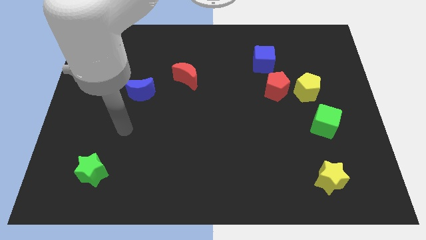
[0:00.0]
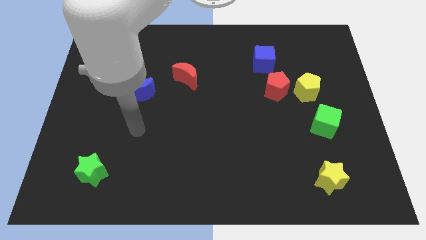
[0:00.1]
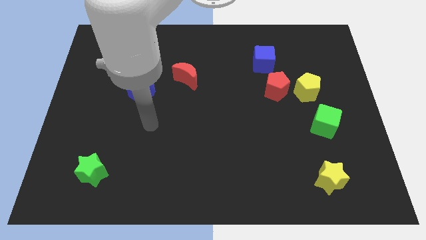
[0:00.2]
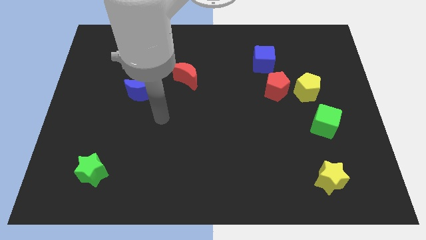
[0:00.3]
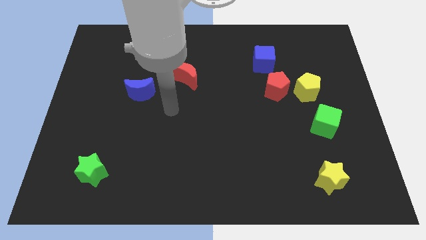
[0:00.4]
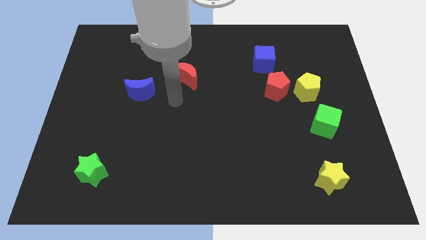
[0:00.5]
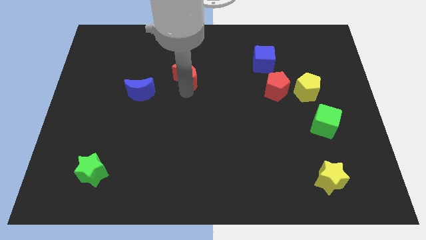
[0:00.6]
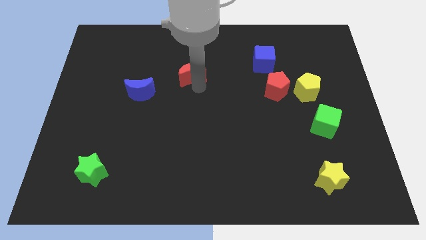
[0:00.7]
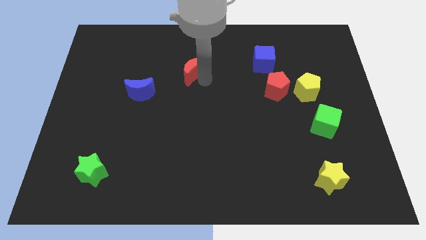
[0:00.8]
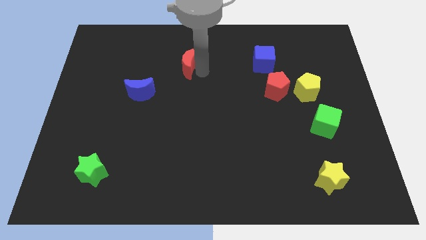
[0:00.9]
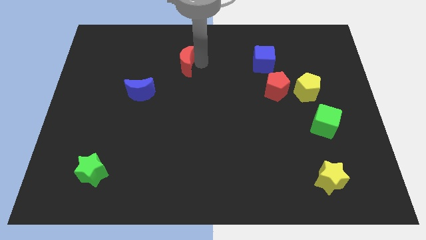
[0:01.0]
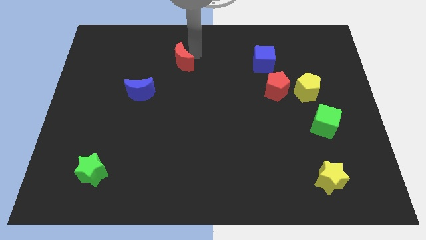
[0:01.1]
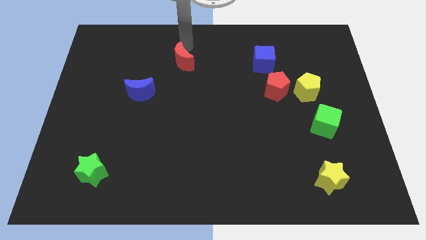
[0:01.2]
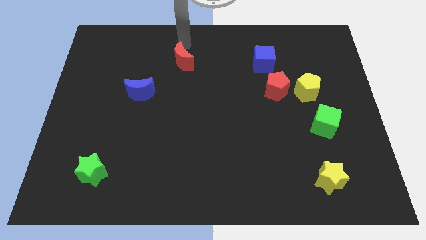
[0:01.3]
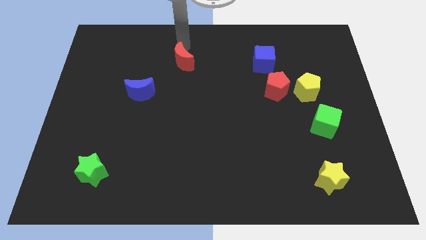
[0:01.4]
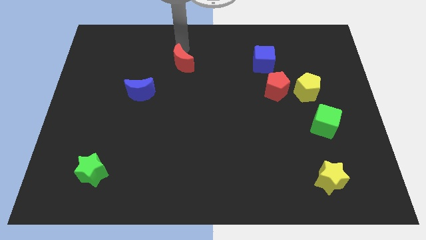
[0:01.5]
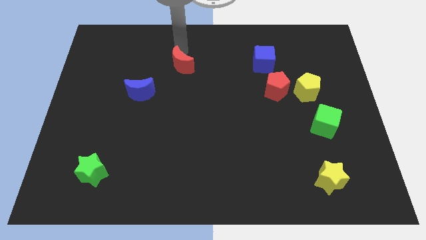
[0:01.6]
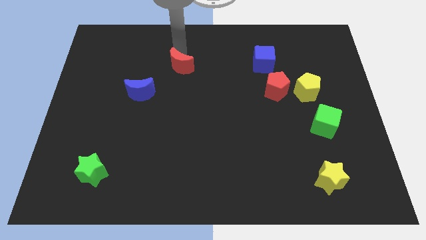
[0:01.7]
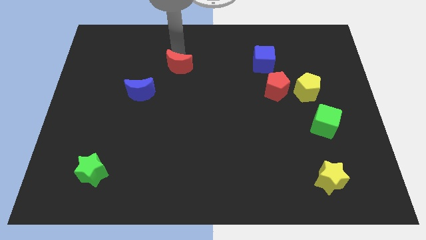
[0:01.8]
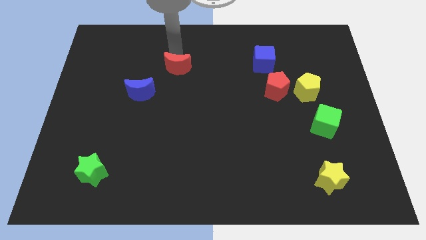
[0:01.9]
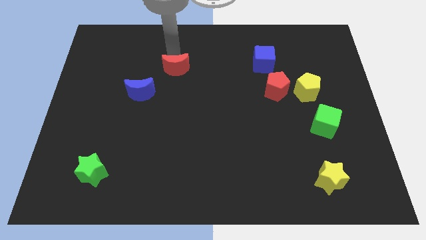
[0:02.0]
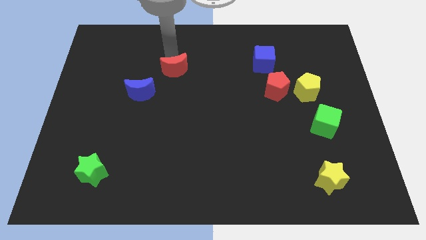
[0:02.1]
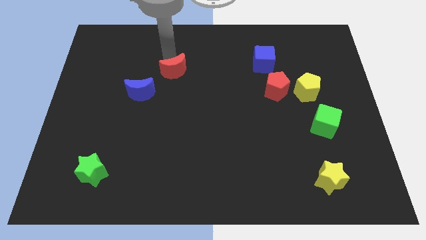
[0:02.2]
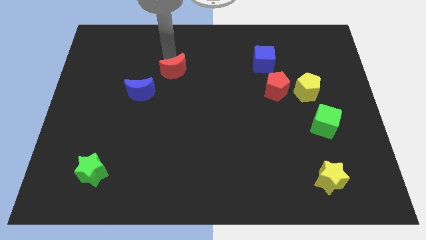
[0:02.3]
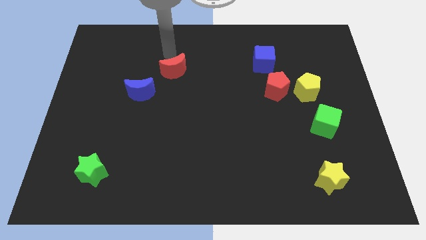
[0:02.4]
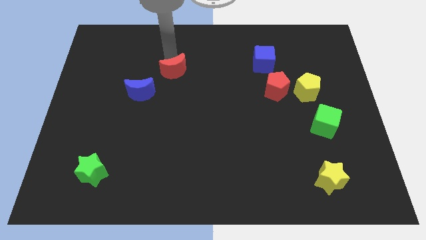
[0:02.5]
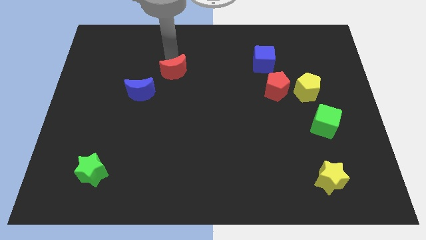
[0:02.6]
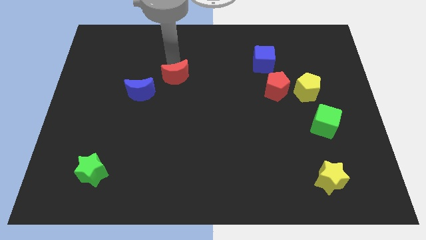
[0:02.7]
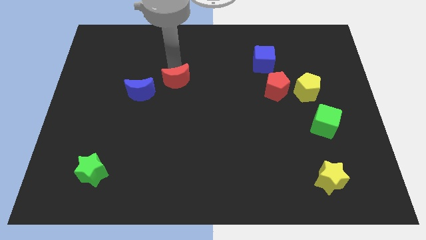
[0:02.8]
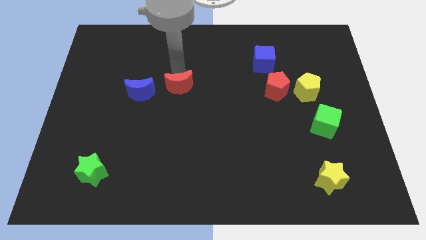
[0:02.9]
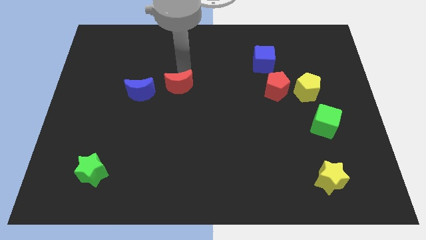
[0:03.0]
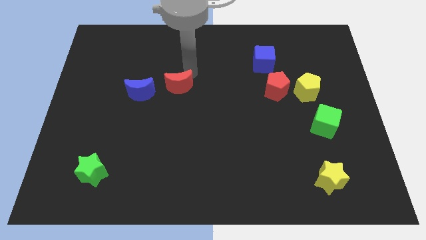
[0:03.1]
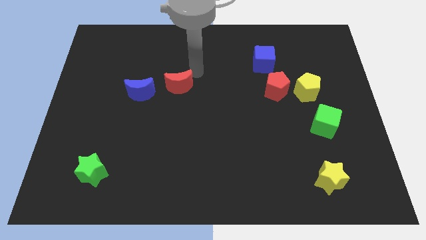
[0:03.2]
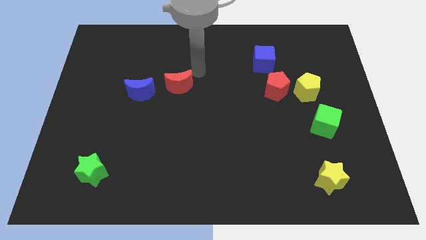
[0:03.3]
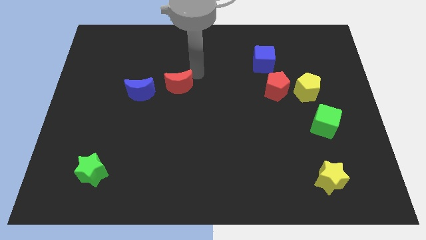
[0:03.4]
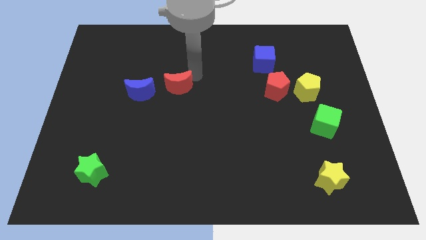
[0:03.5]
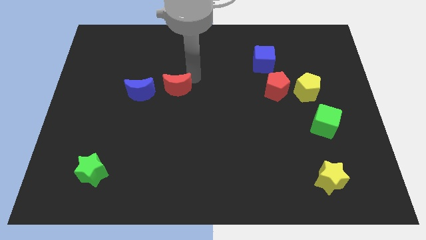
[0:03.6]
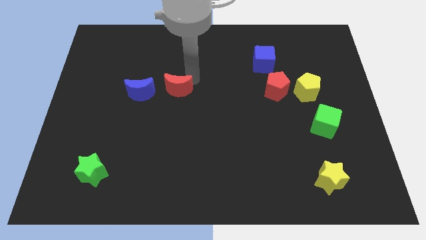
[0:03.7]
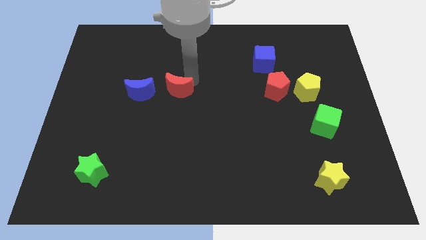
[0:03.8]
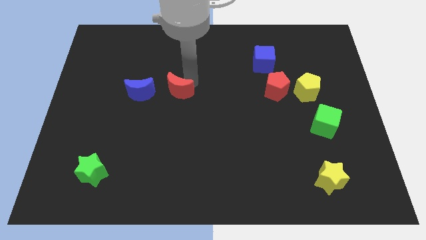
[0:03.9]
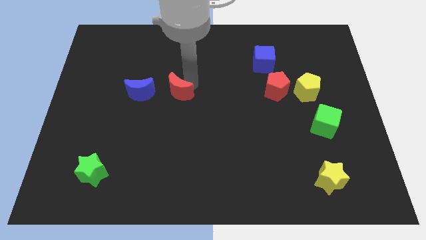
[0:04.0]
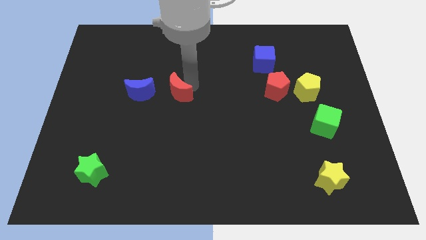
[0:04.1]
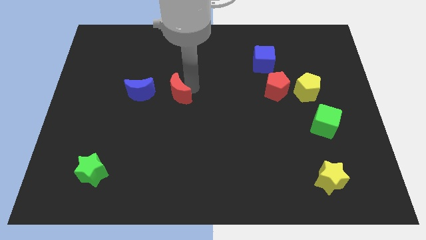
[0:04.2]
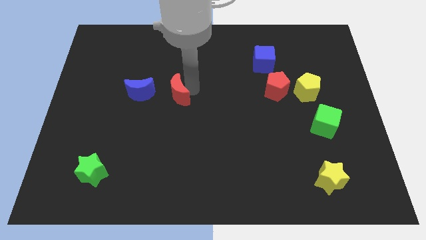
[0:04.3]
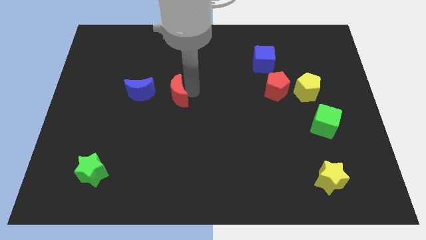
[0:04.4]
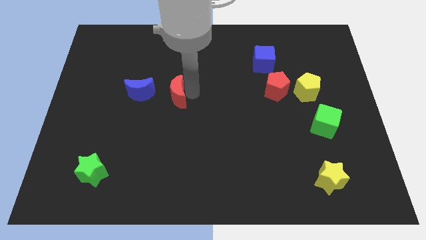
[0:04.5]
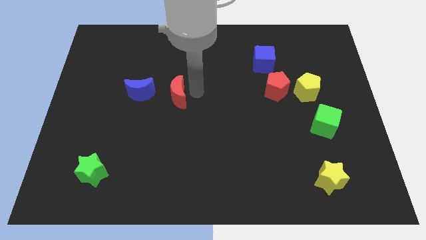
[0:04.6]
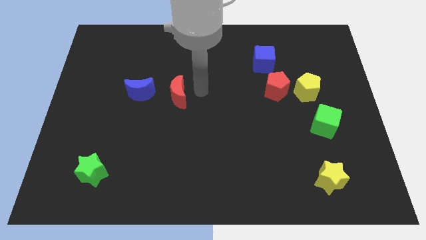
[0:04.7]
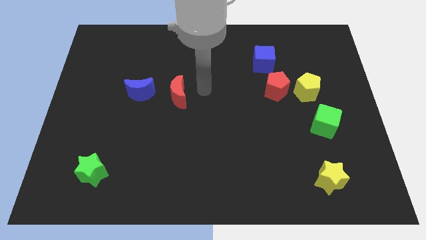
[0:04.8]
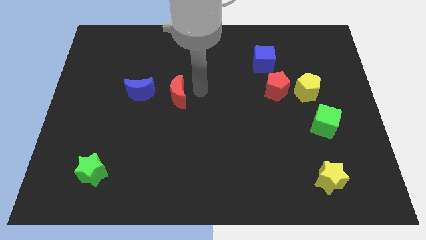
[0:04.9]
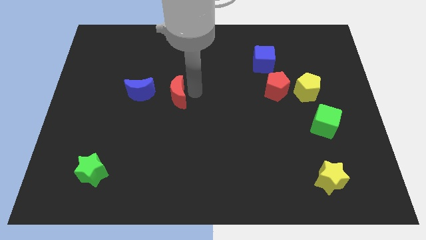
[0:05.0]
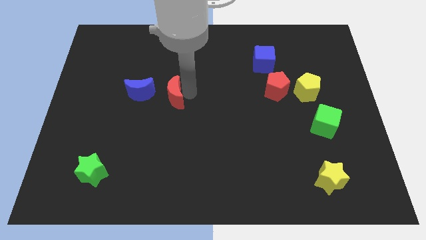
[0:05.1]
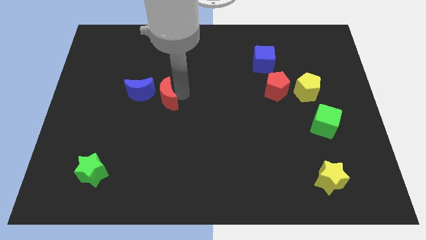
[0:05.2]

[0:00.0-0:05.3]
slide the red moon downwards and then to the left somewhat

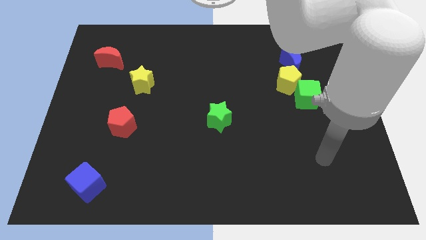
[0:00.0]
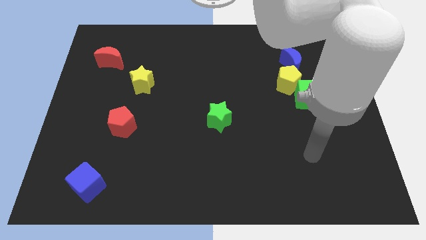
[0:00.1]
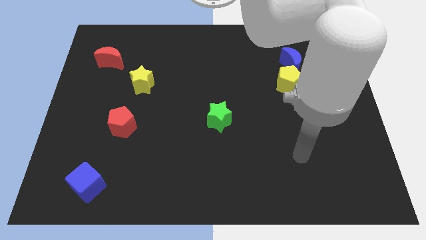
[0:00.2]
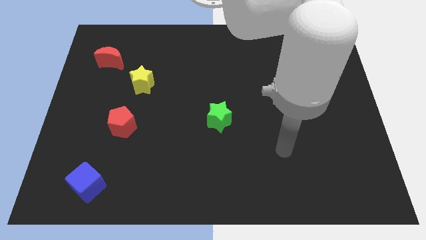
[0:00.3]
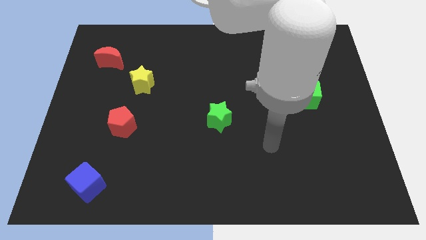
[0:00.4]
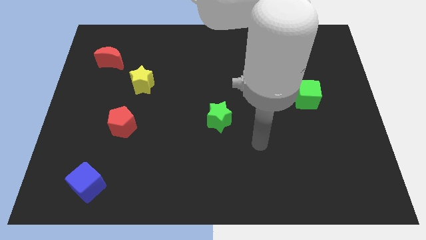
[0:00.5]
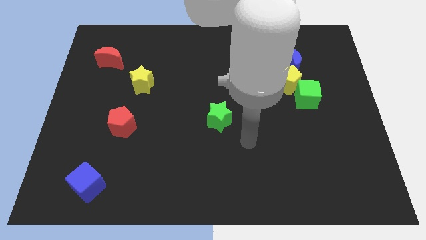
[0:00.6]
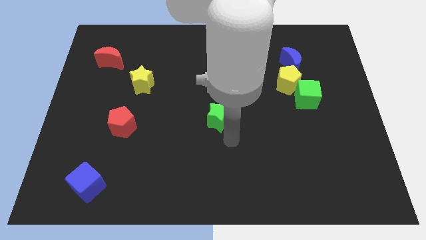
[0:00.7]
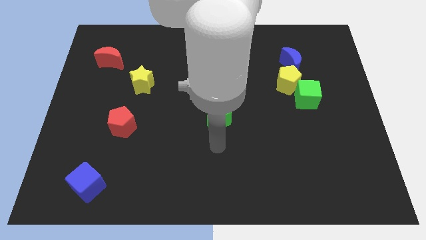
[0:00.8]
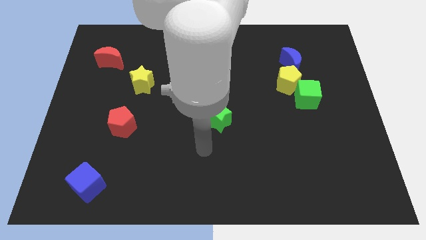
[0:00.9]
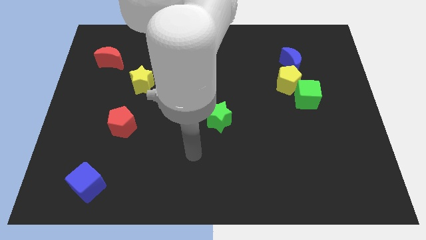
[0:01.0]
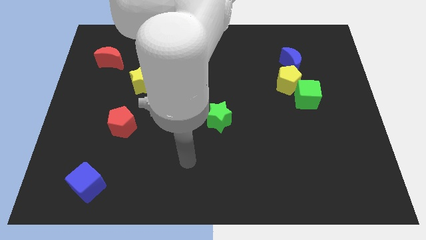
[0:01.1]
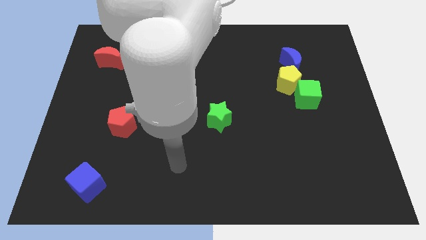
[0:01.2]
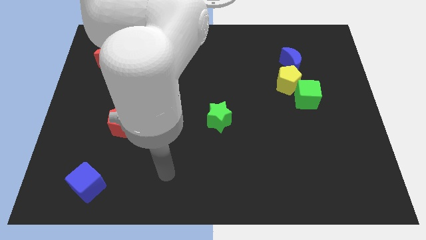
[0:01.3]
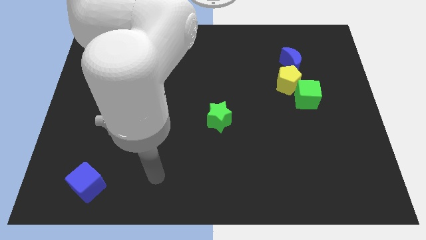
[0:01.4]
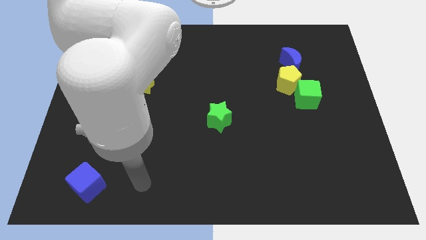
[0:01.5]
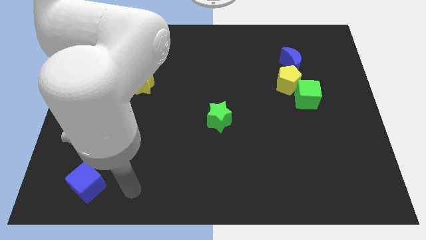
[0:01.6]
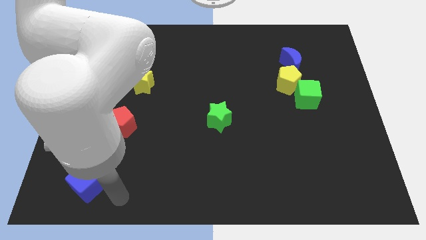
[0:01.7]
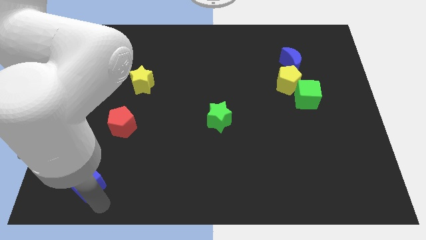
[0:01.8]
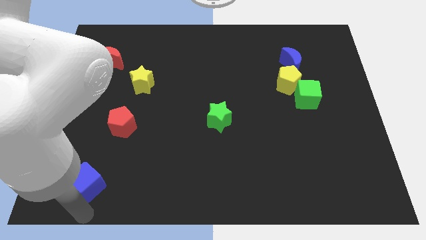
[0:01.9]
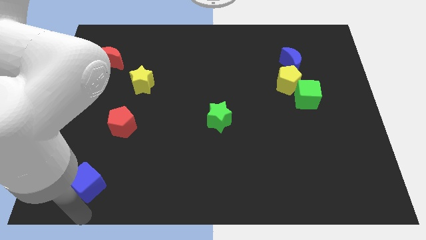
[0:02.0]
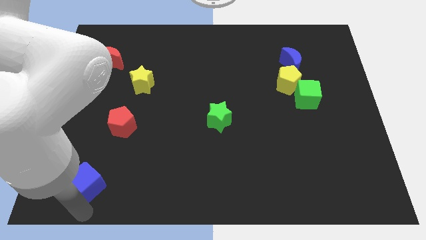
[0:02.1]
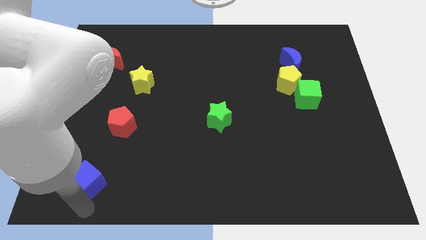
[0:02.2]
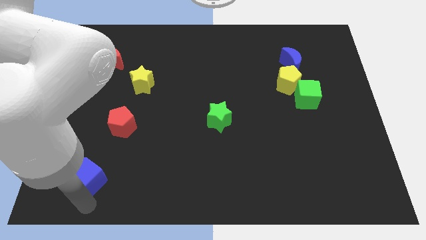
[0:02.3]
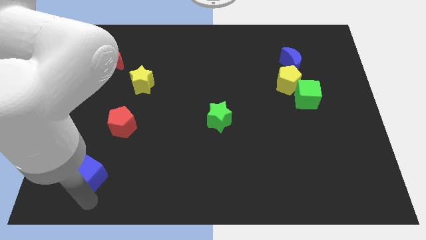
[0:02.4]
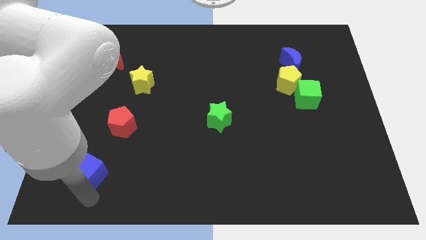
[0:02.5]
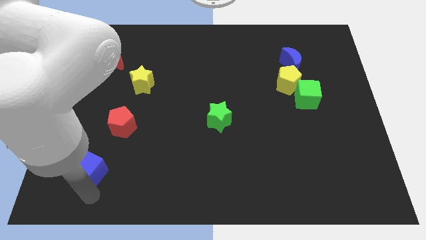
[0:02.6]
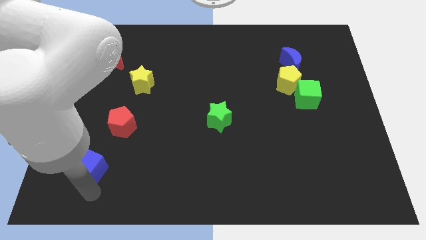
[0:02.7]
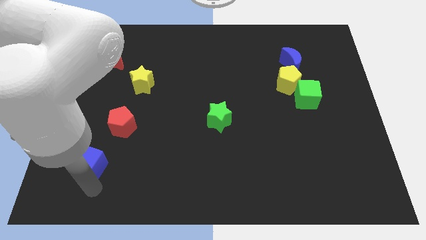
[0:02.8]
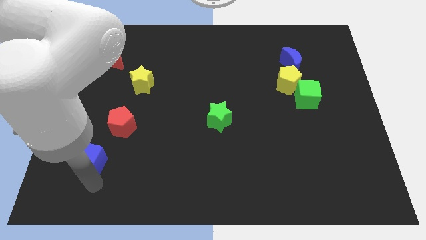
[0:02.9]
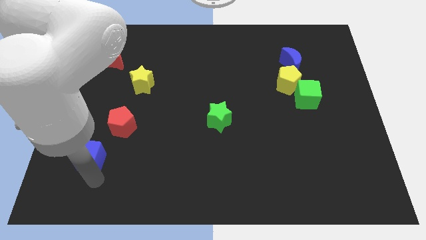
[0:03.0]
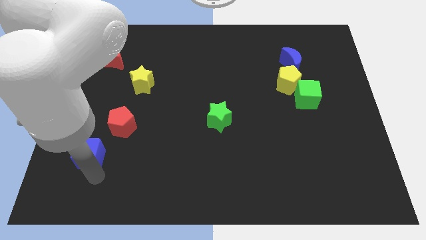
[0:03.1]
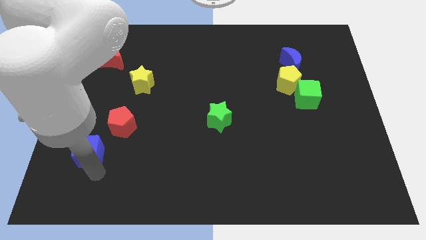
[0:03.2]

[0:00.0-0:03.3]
push the blue cube upwards somewhat
